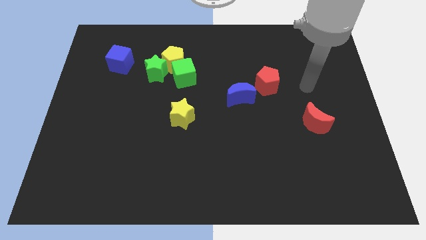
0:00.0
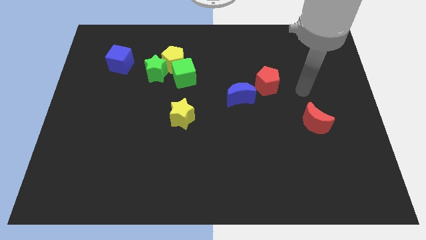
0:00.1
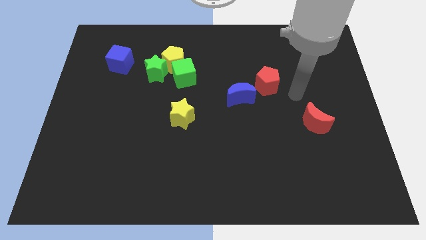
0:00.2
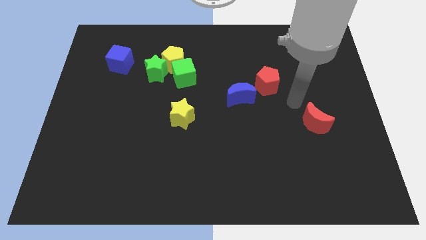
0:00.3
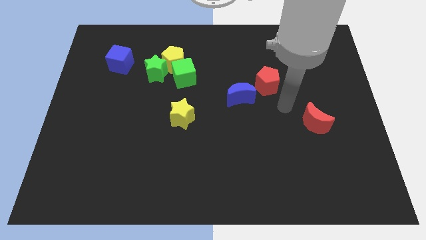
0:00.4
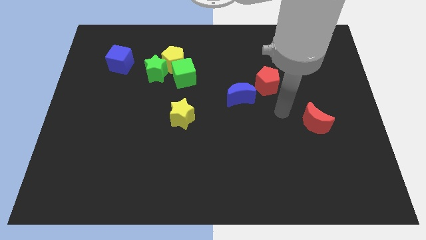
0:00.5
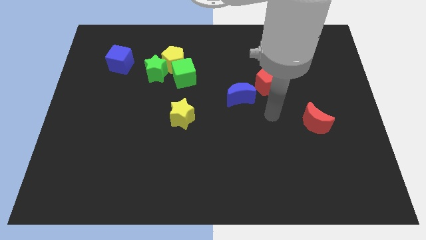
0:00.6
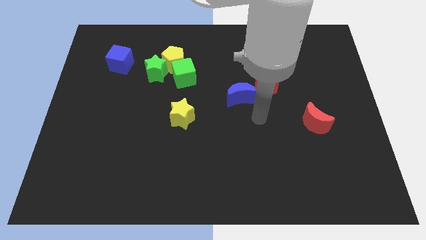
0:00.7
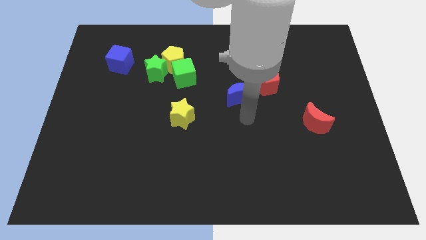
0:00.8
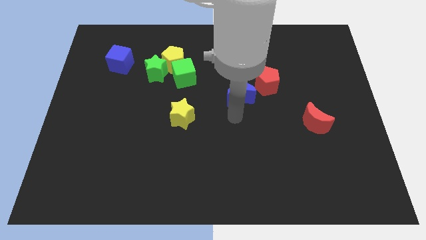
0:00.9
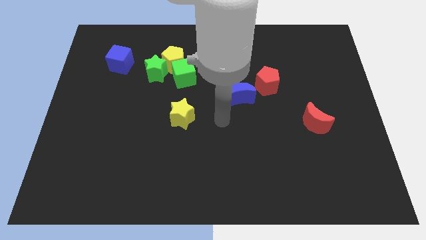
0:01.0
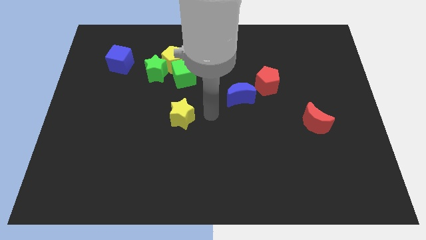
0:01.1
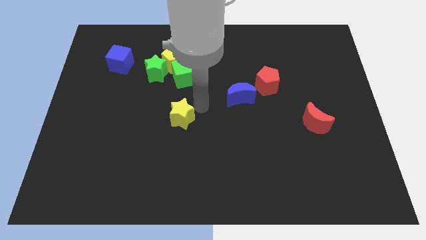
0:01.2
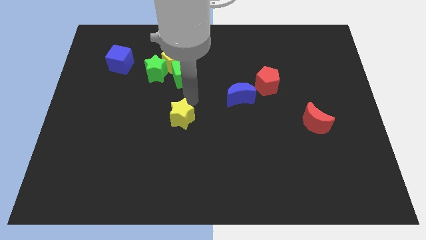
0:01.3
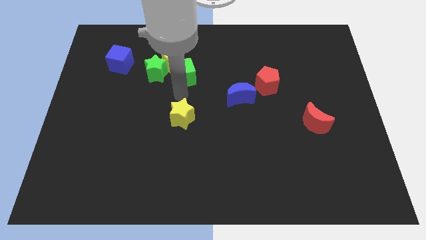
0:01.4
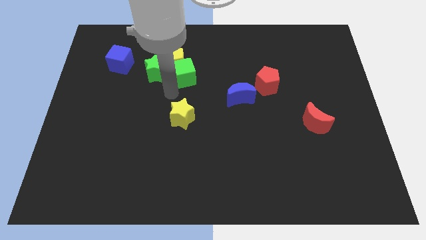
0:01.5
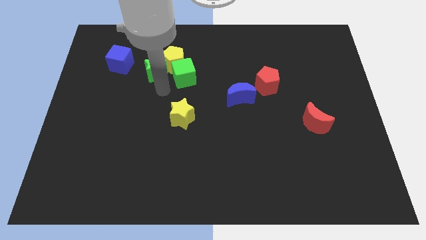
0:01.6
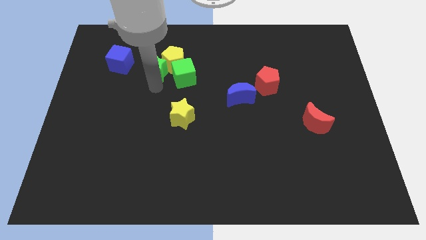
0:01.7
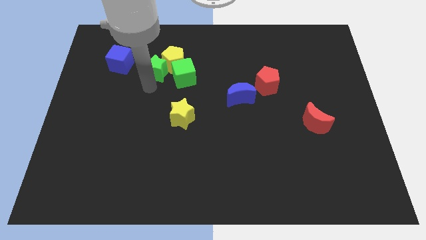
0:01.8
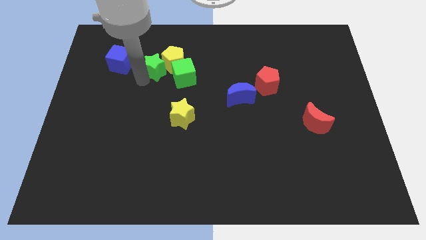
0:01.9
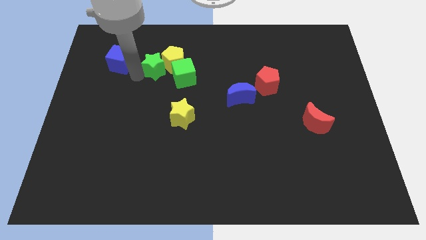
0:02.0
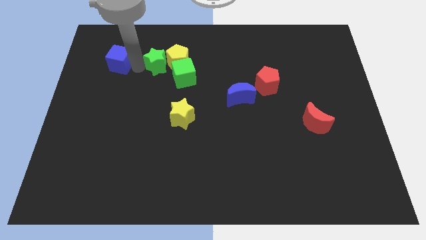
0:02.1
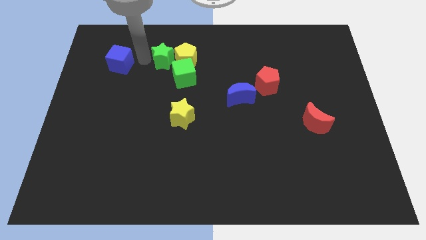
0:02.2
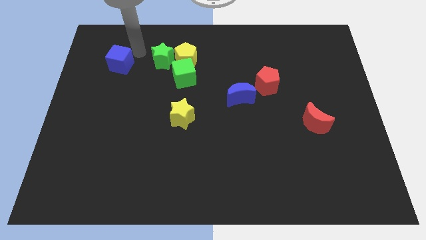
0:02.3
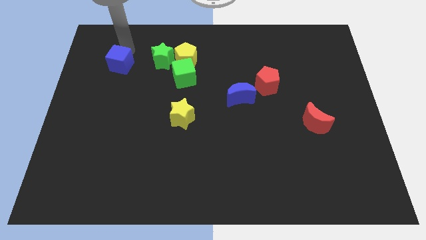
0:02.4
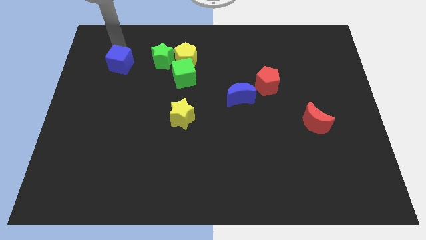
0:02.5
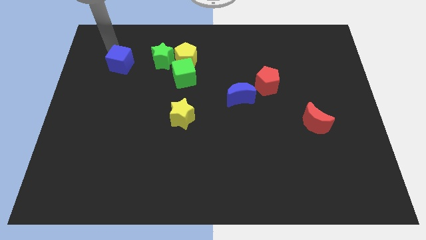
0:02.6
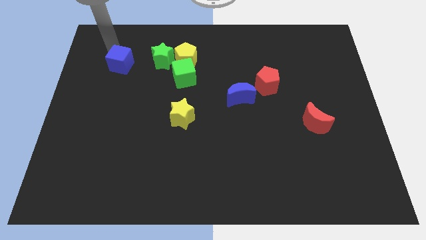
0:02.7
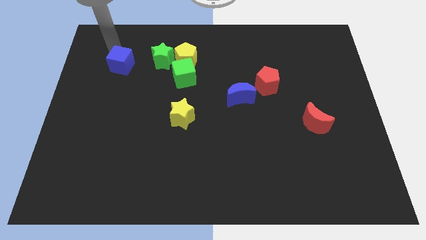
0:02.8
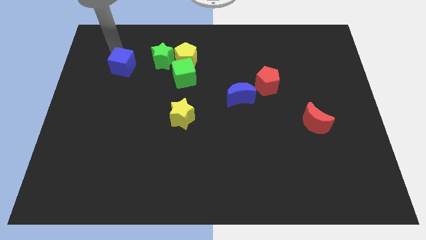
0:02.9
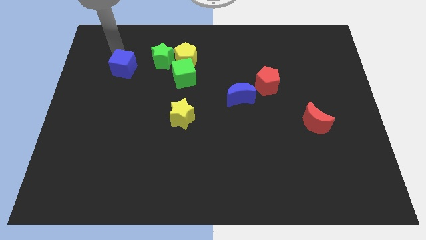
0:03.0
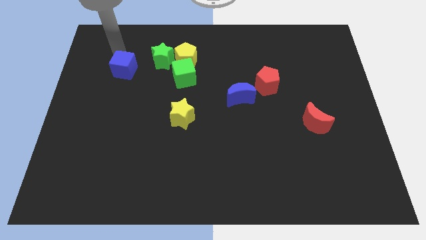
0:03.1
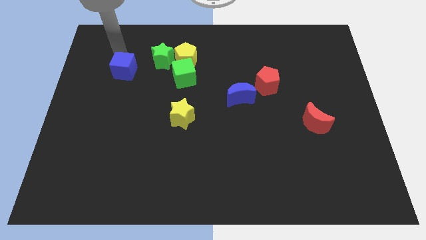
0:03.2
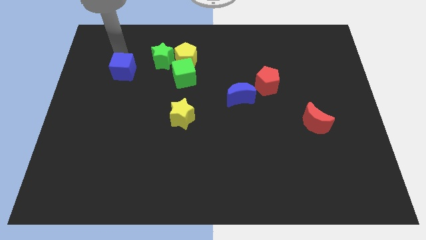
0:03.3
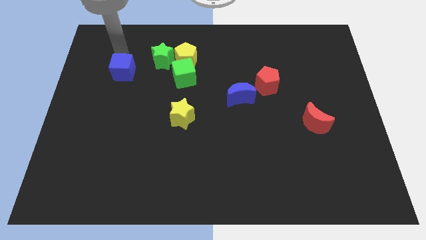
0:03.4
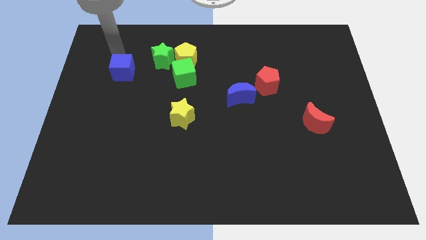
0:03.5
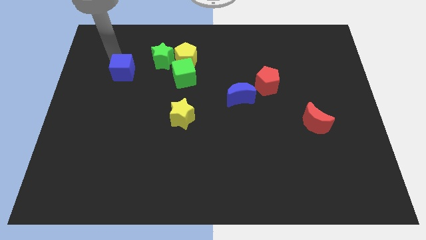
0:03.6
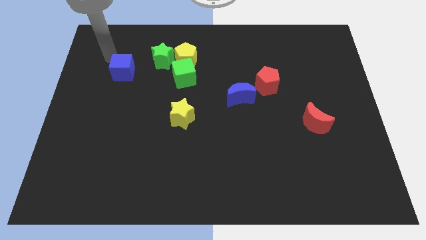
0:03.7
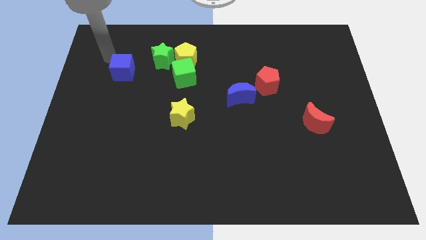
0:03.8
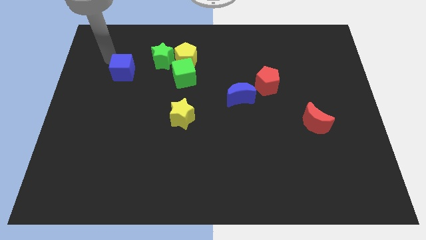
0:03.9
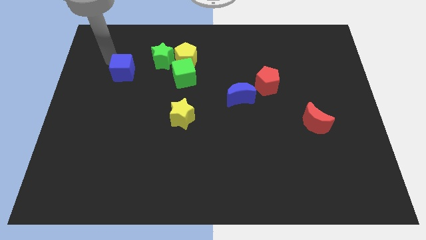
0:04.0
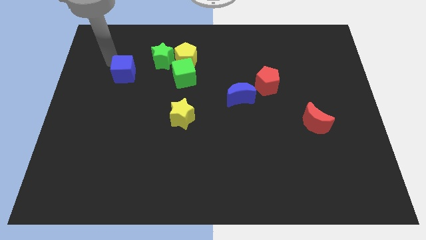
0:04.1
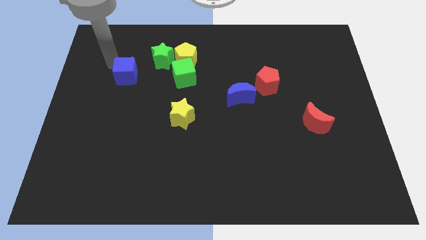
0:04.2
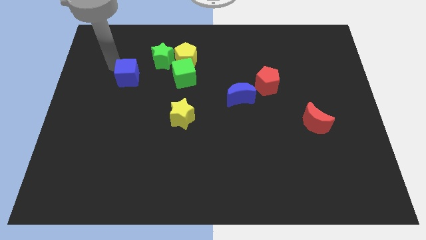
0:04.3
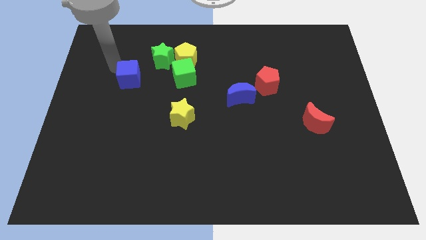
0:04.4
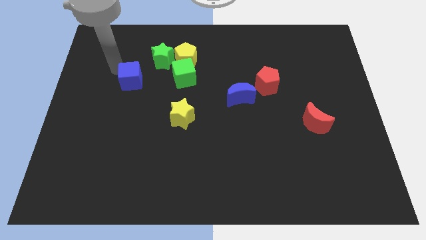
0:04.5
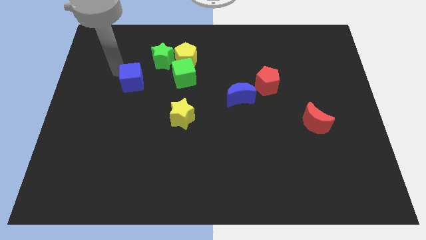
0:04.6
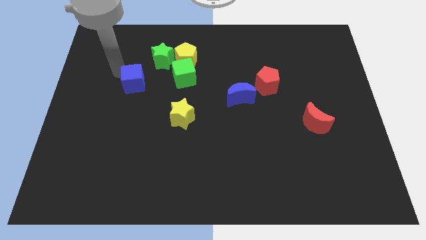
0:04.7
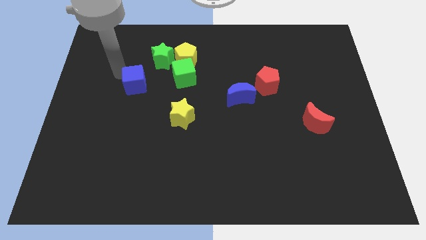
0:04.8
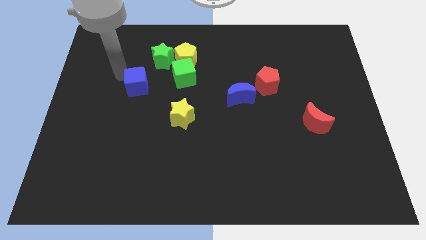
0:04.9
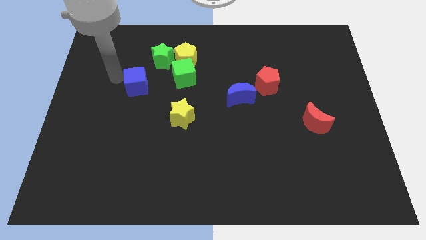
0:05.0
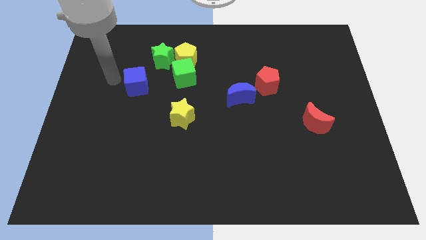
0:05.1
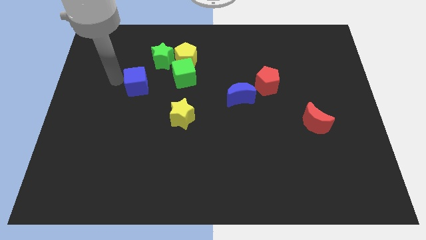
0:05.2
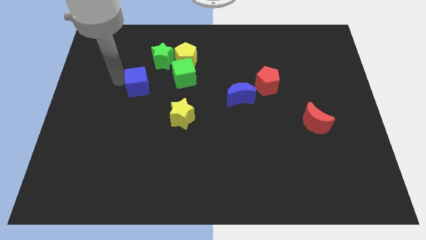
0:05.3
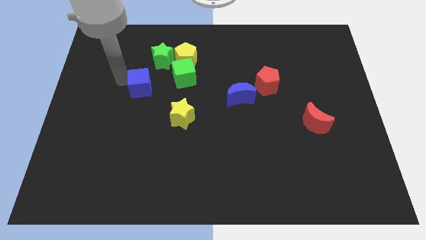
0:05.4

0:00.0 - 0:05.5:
move the blue cube to the bottom side of the green star
